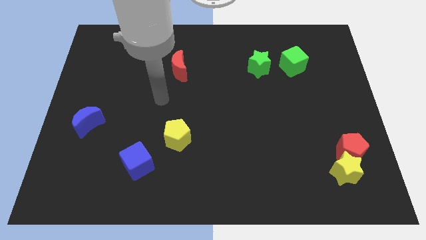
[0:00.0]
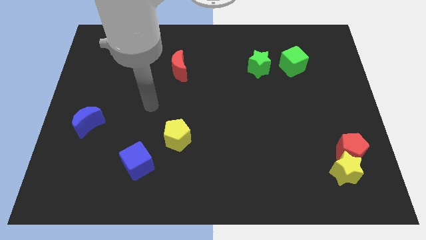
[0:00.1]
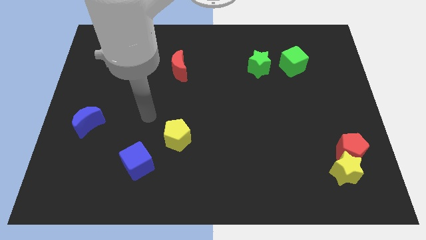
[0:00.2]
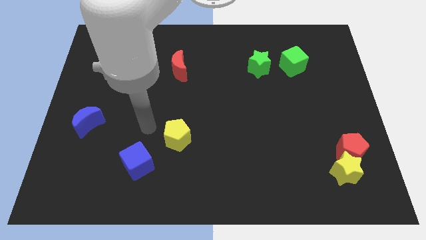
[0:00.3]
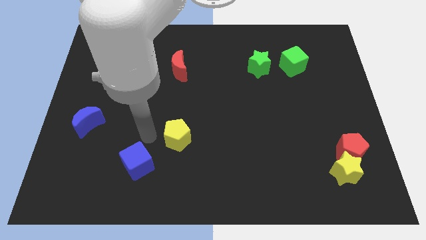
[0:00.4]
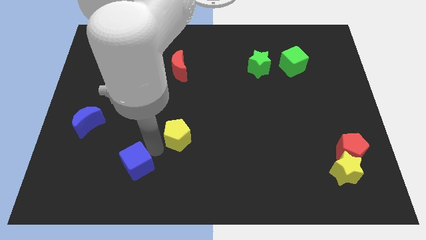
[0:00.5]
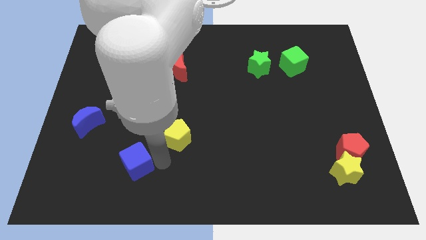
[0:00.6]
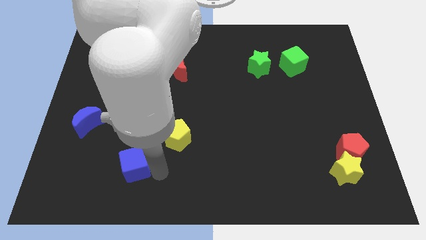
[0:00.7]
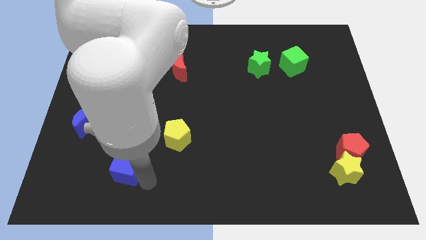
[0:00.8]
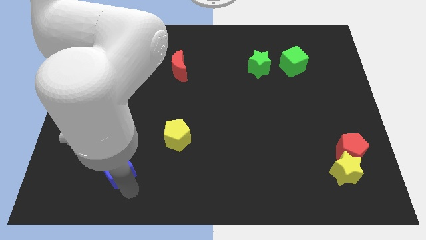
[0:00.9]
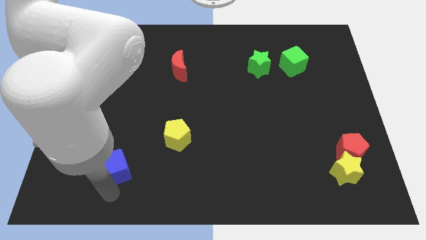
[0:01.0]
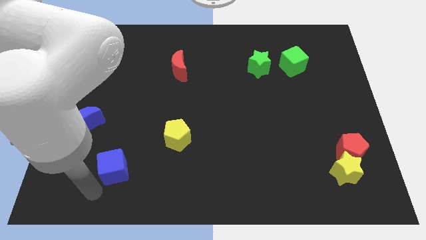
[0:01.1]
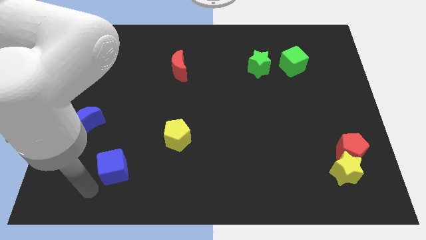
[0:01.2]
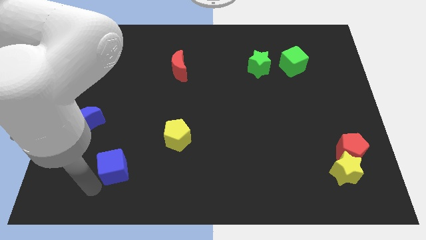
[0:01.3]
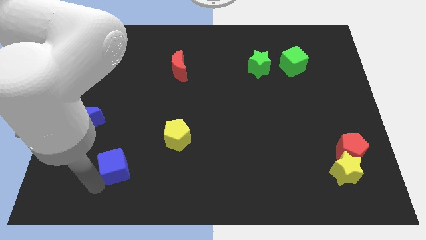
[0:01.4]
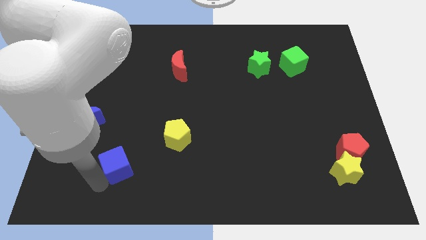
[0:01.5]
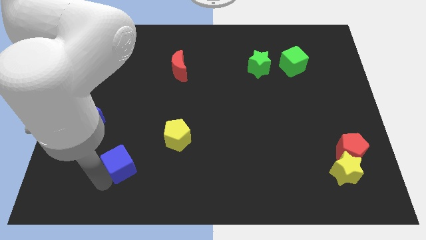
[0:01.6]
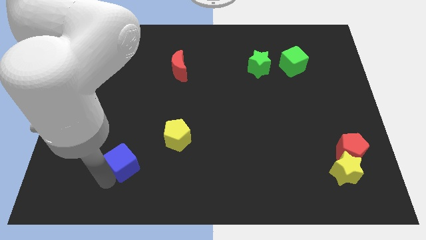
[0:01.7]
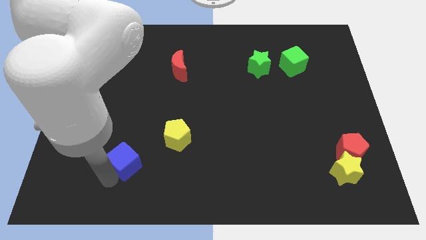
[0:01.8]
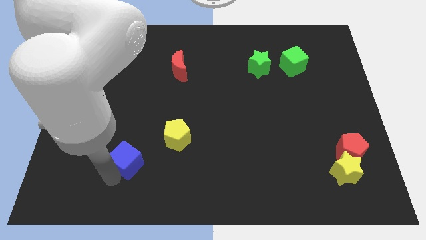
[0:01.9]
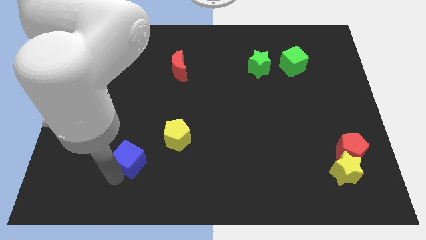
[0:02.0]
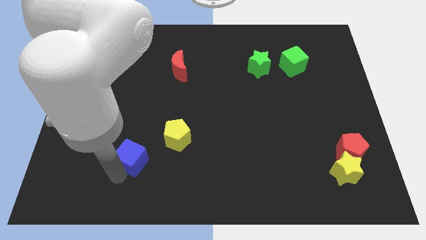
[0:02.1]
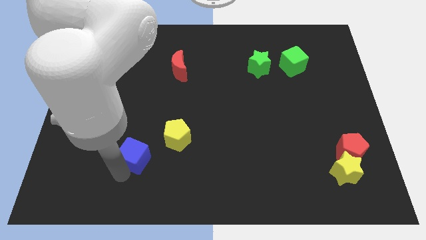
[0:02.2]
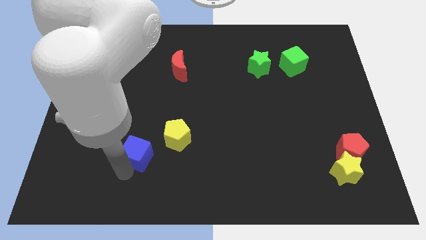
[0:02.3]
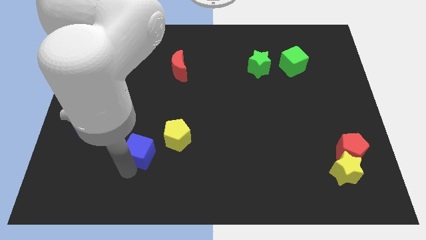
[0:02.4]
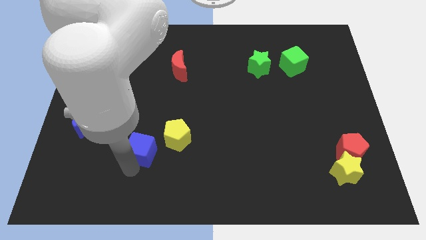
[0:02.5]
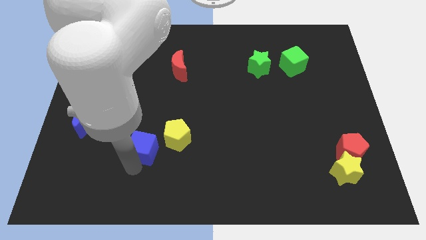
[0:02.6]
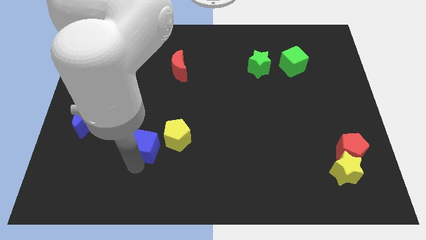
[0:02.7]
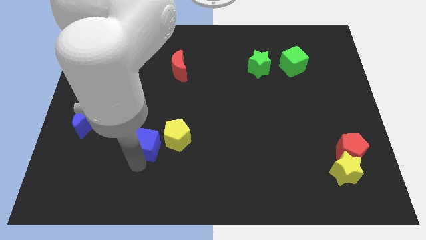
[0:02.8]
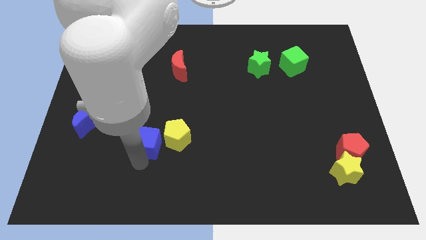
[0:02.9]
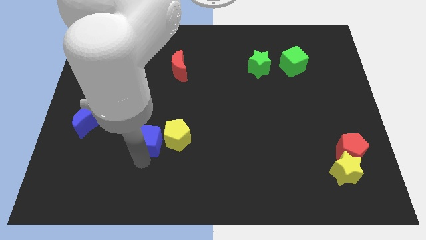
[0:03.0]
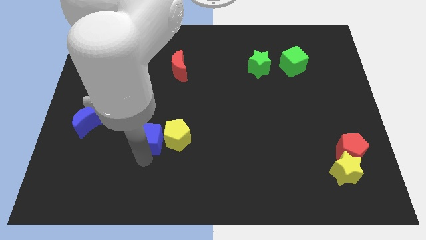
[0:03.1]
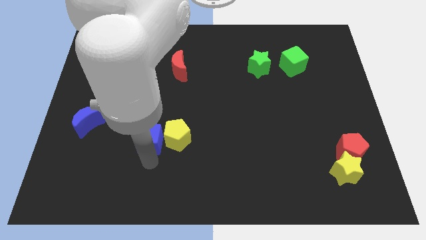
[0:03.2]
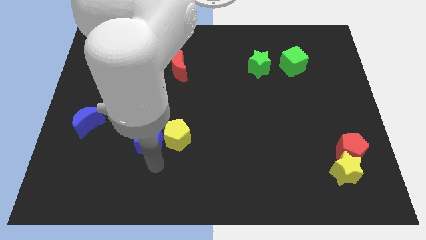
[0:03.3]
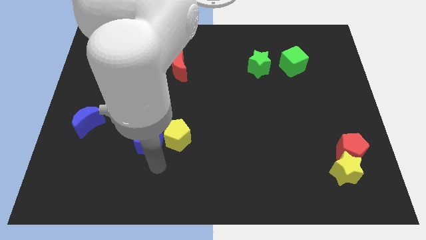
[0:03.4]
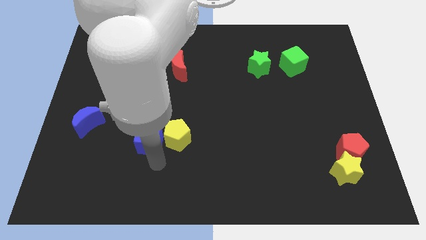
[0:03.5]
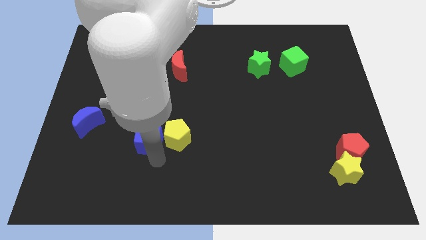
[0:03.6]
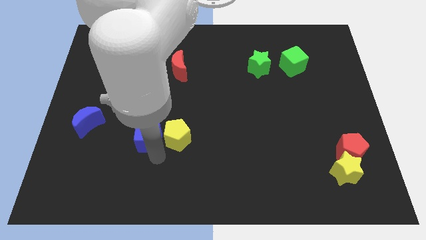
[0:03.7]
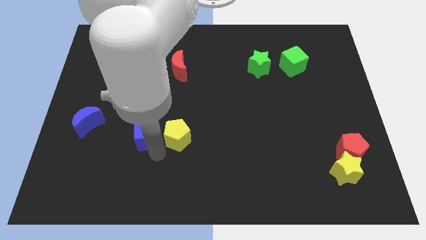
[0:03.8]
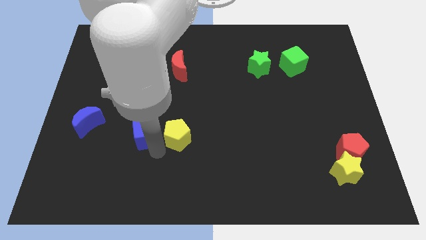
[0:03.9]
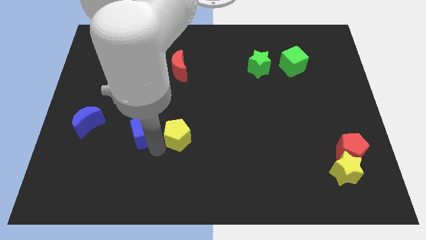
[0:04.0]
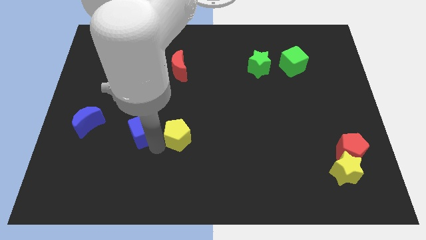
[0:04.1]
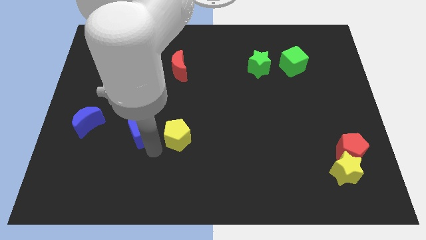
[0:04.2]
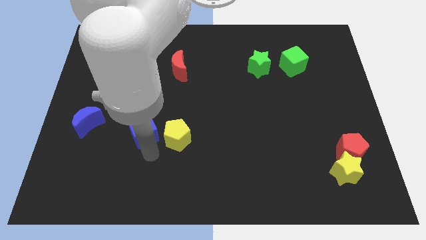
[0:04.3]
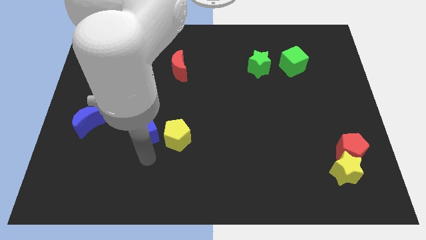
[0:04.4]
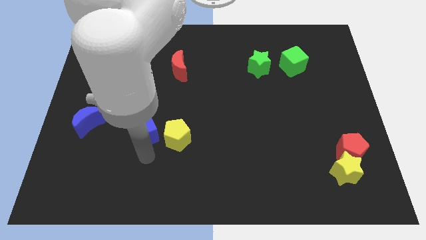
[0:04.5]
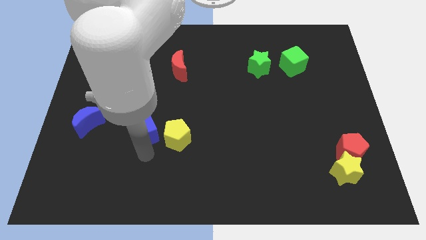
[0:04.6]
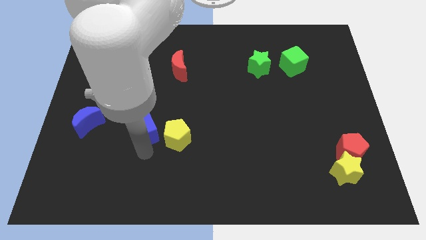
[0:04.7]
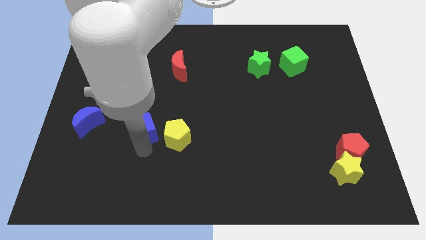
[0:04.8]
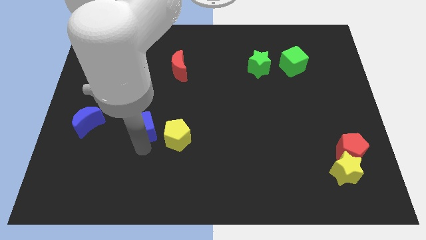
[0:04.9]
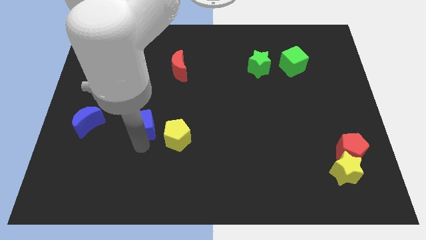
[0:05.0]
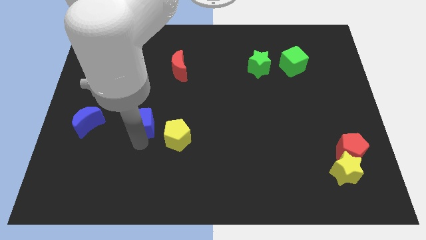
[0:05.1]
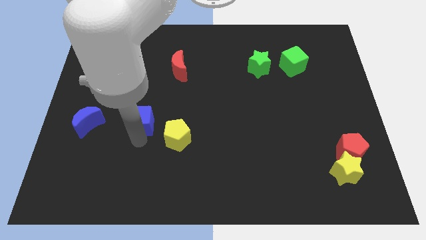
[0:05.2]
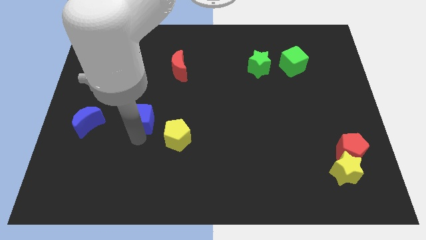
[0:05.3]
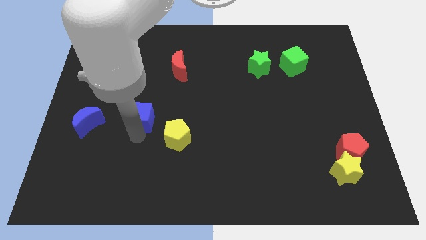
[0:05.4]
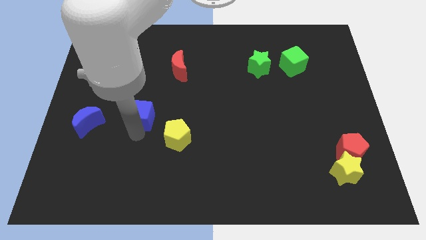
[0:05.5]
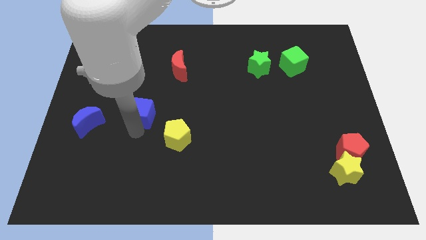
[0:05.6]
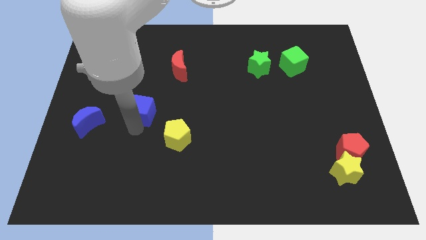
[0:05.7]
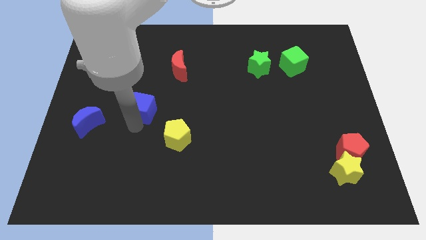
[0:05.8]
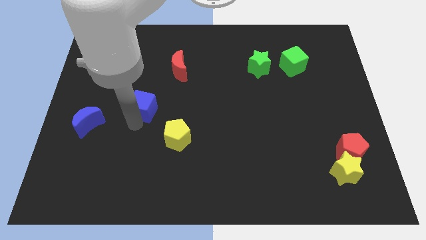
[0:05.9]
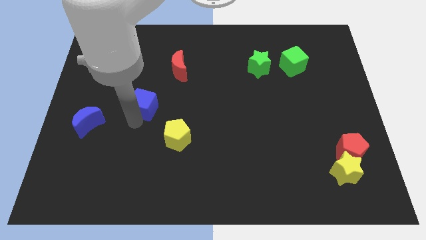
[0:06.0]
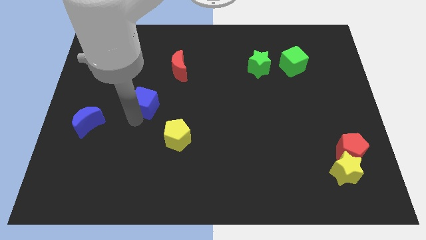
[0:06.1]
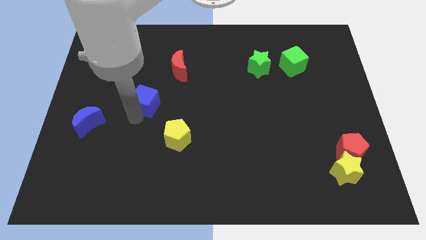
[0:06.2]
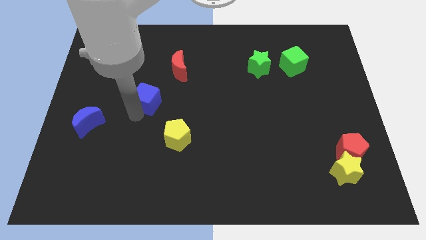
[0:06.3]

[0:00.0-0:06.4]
move the blue cube to the bottom left of the red moon
